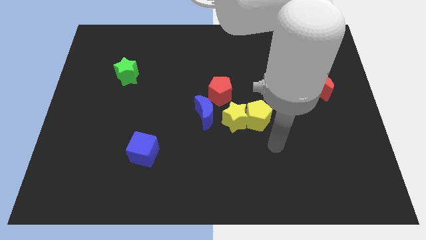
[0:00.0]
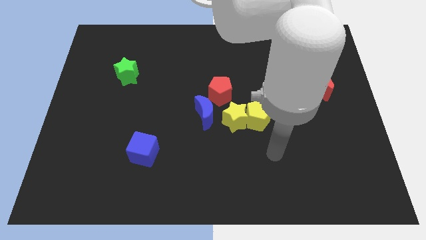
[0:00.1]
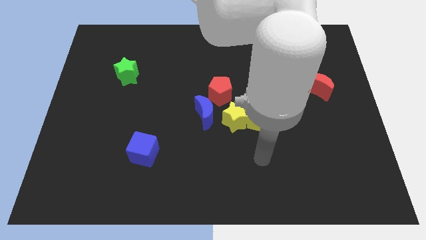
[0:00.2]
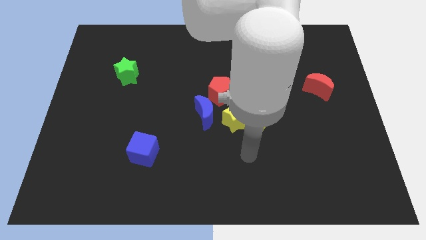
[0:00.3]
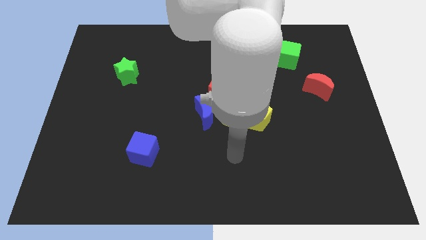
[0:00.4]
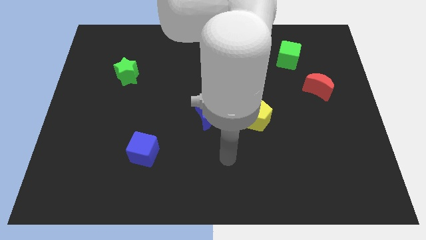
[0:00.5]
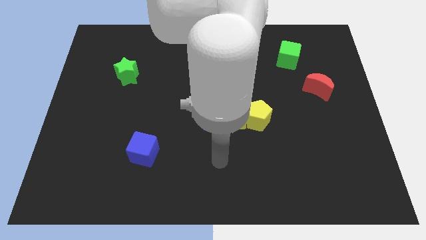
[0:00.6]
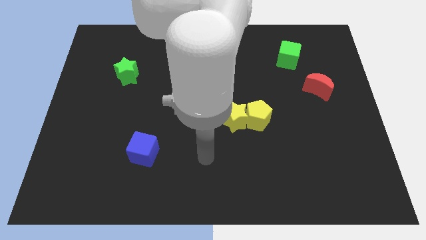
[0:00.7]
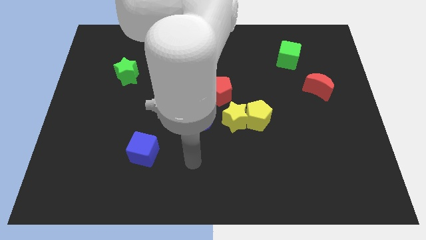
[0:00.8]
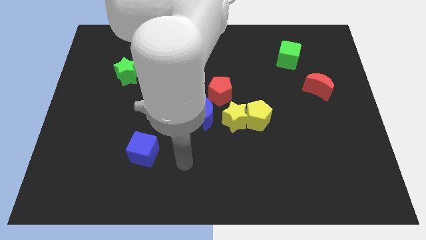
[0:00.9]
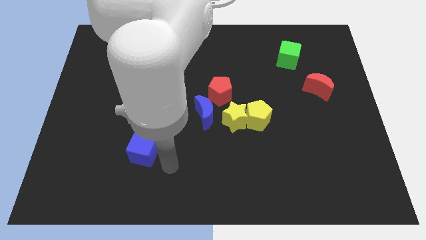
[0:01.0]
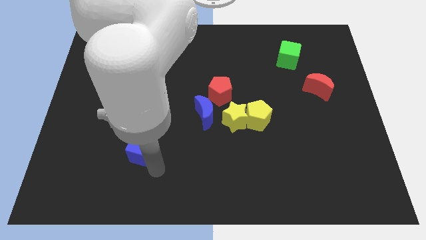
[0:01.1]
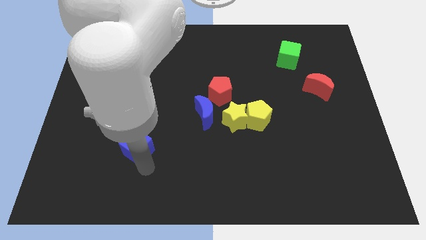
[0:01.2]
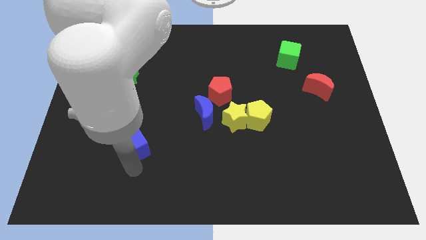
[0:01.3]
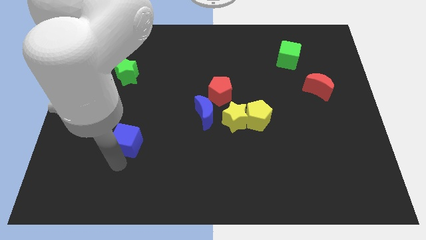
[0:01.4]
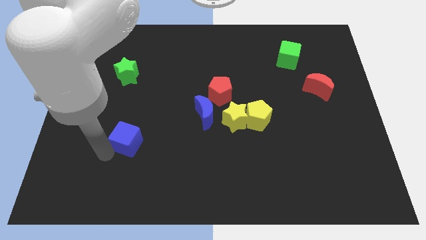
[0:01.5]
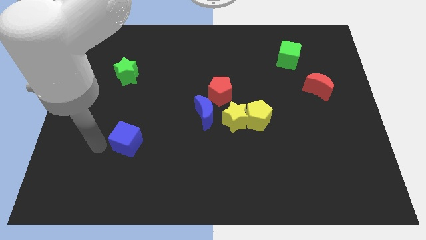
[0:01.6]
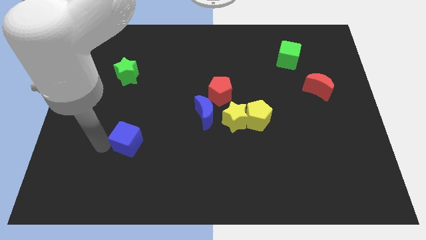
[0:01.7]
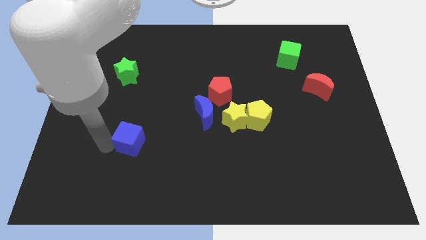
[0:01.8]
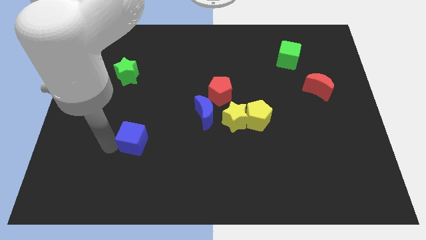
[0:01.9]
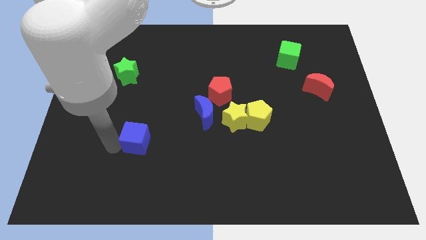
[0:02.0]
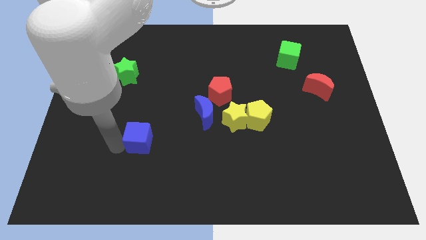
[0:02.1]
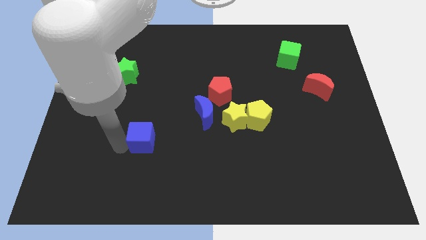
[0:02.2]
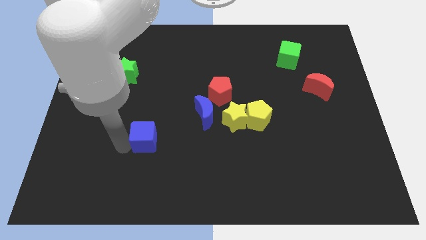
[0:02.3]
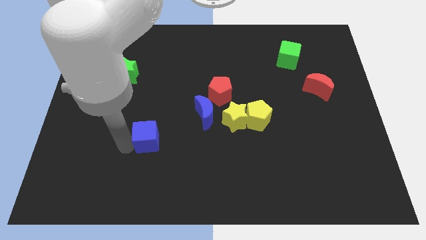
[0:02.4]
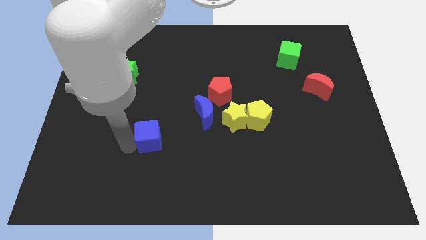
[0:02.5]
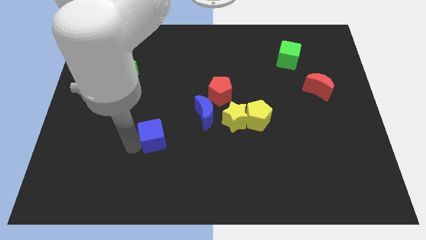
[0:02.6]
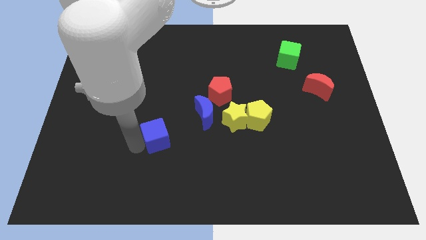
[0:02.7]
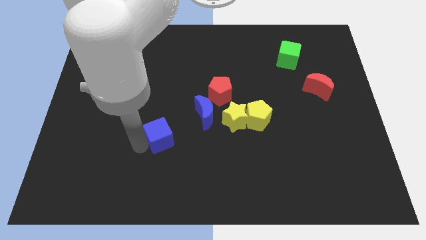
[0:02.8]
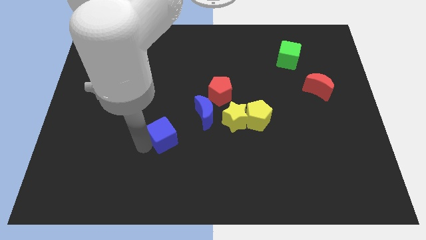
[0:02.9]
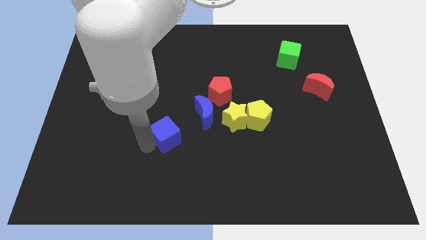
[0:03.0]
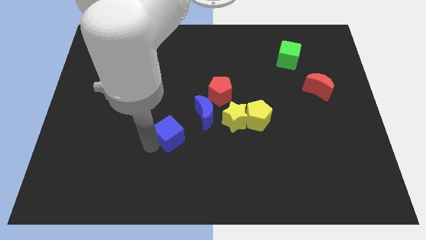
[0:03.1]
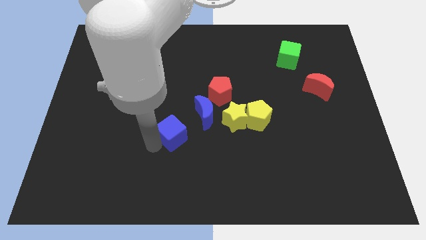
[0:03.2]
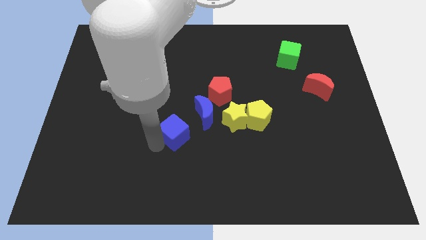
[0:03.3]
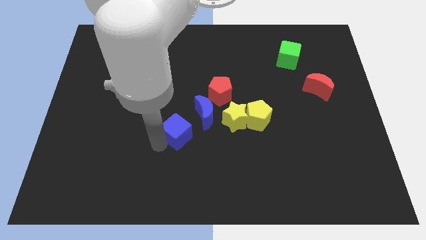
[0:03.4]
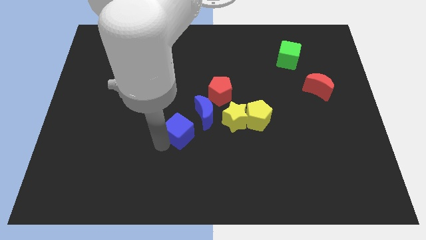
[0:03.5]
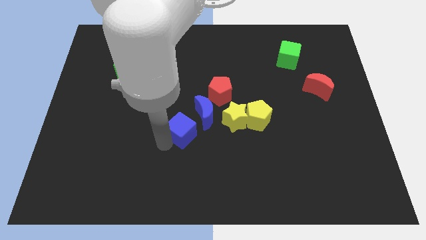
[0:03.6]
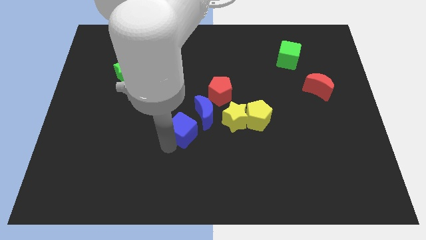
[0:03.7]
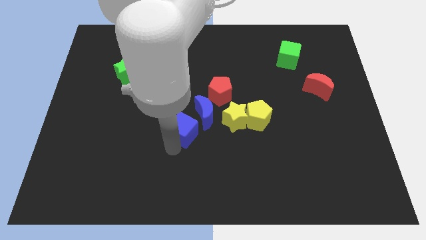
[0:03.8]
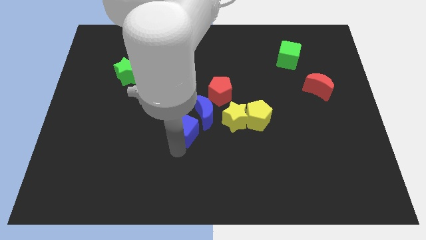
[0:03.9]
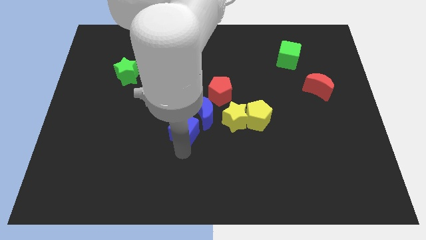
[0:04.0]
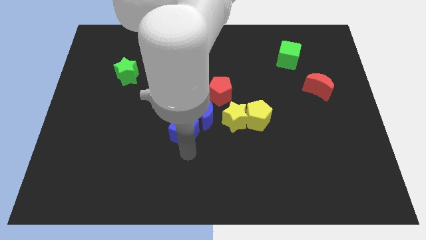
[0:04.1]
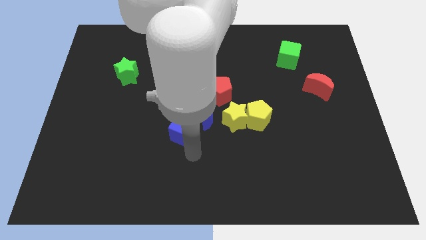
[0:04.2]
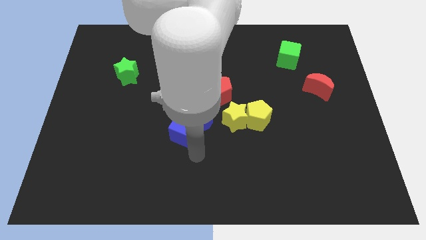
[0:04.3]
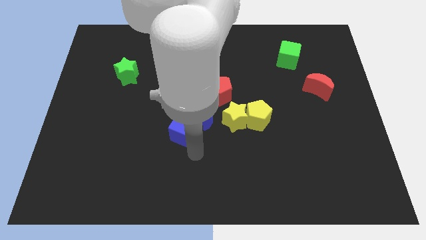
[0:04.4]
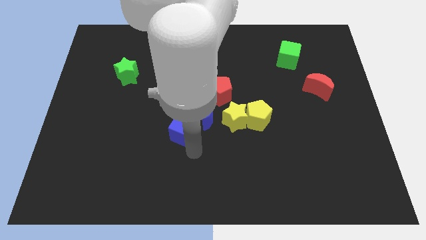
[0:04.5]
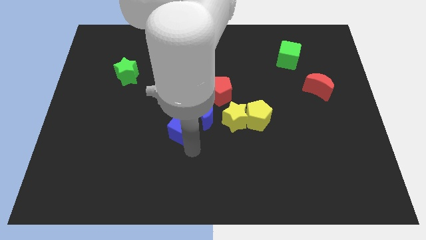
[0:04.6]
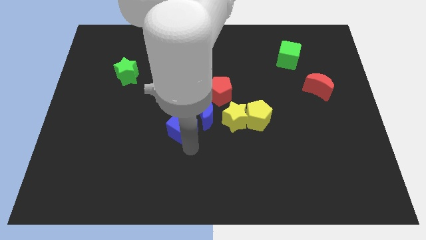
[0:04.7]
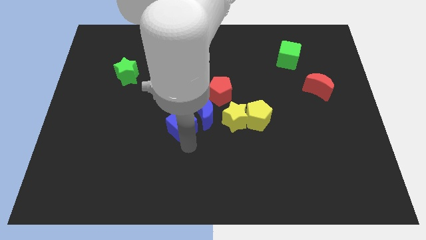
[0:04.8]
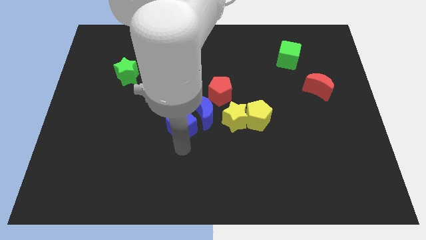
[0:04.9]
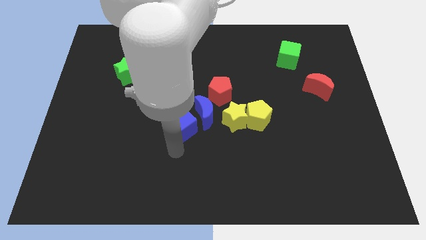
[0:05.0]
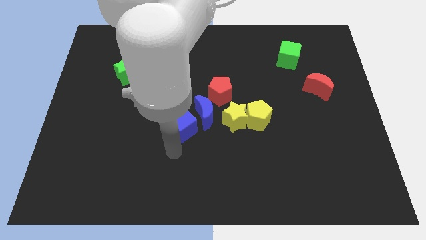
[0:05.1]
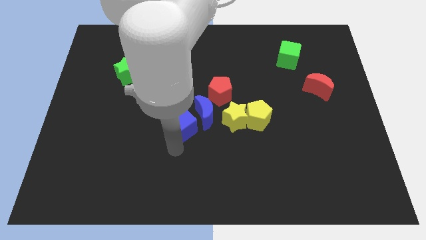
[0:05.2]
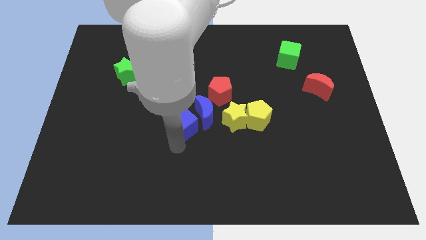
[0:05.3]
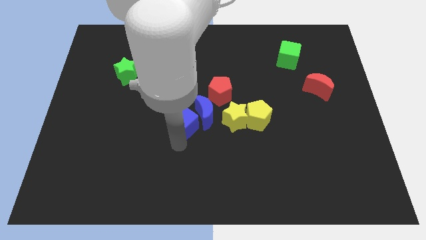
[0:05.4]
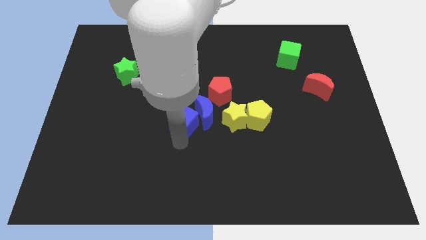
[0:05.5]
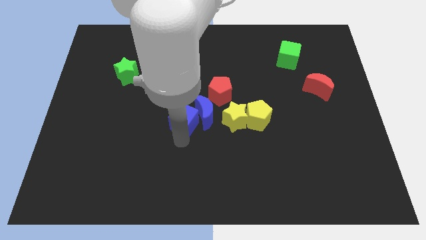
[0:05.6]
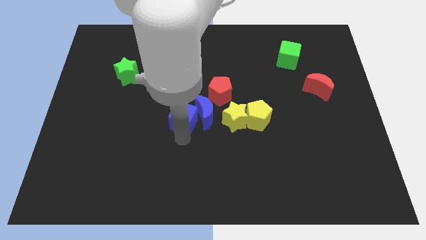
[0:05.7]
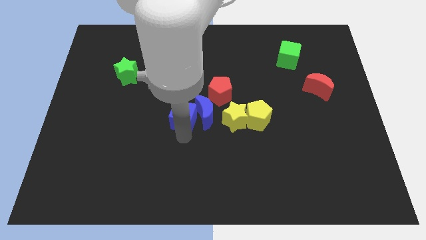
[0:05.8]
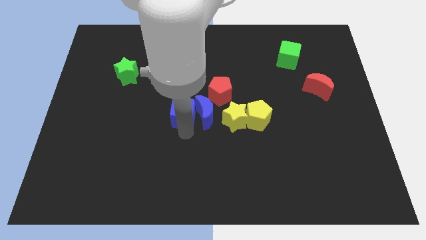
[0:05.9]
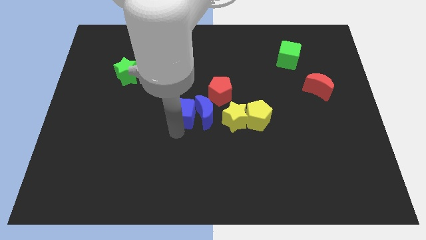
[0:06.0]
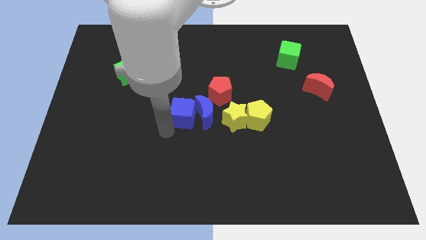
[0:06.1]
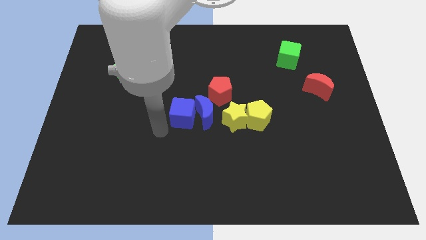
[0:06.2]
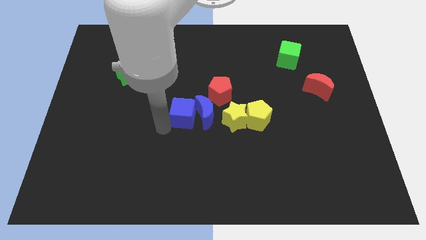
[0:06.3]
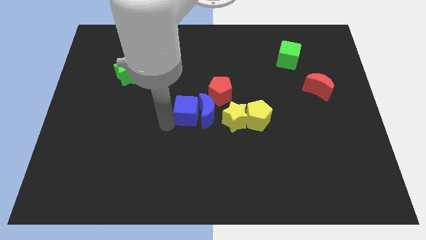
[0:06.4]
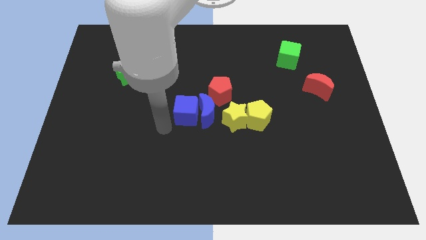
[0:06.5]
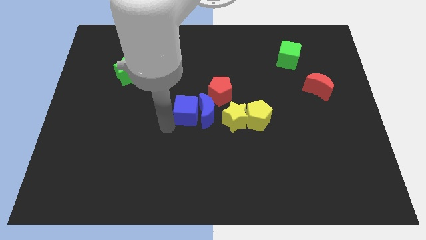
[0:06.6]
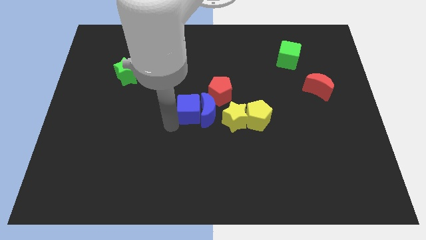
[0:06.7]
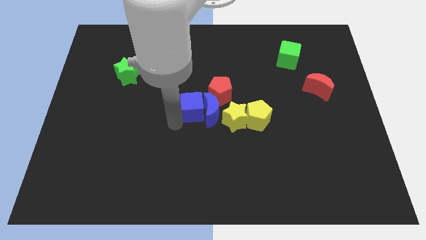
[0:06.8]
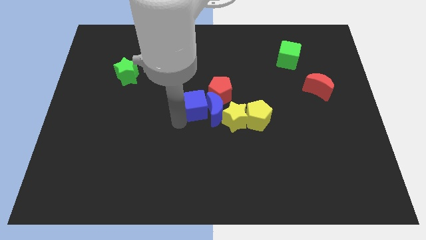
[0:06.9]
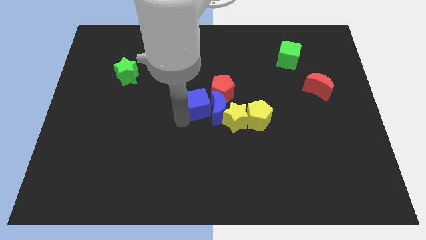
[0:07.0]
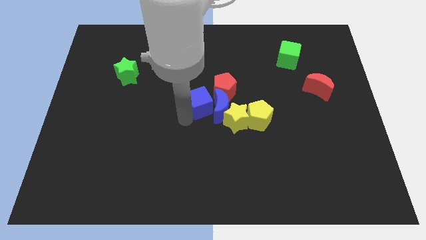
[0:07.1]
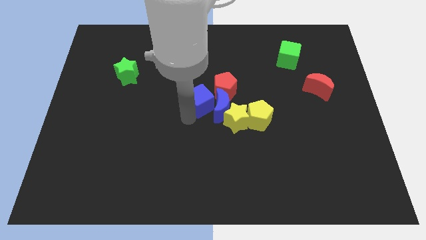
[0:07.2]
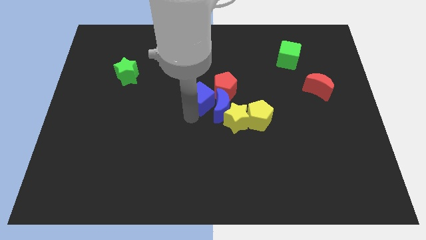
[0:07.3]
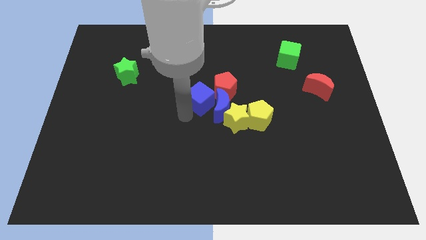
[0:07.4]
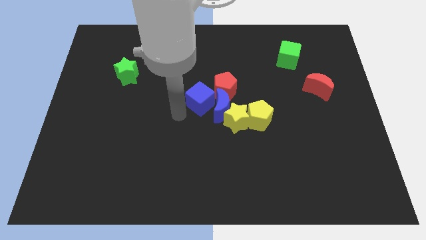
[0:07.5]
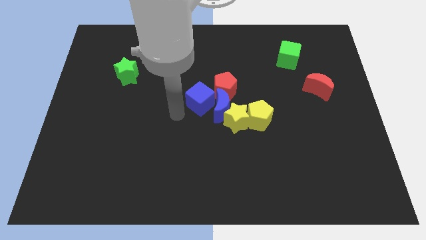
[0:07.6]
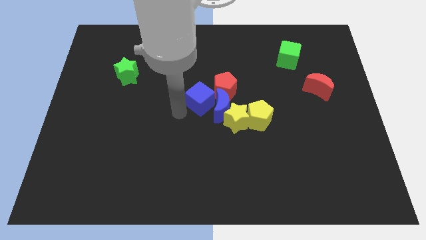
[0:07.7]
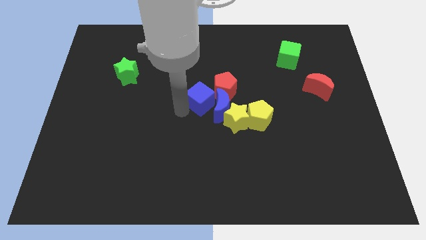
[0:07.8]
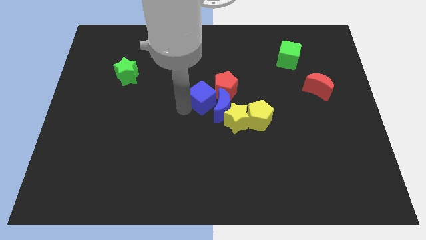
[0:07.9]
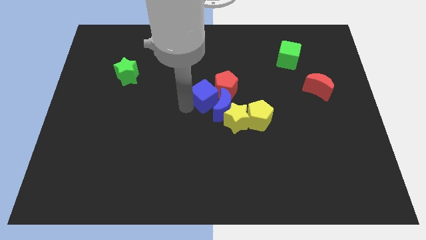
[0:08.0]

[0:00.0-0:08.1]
put the blue cube next to the red pentagon
